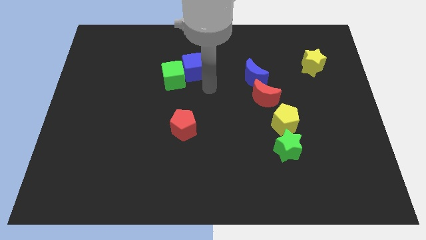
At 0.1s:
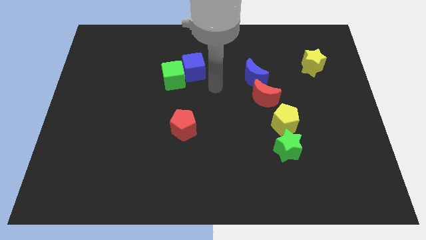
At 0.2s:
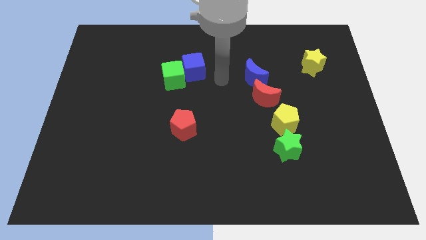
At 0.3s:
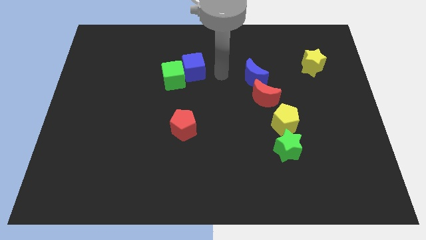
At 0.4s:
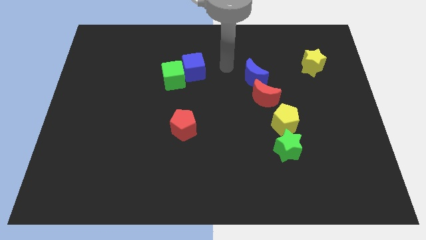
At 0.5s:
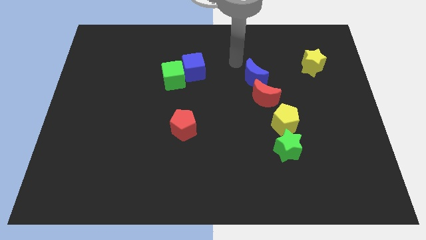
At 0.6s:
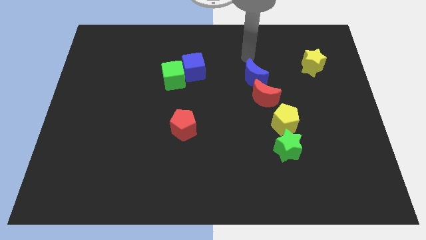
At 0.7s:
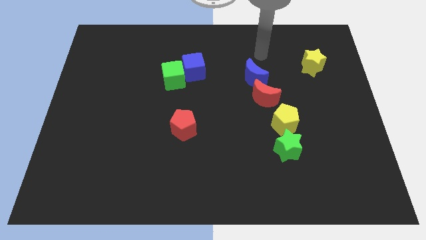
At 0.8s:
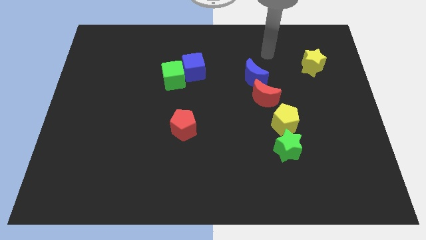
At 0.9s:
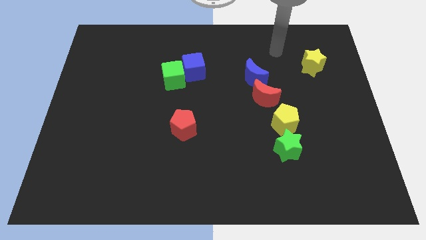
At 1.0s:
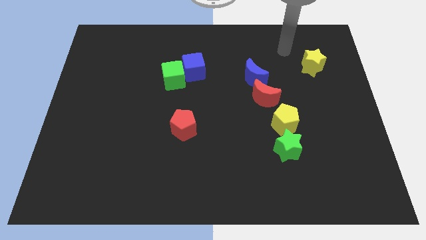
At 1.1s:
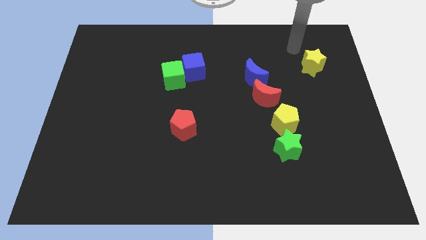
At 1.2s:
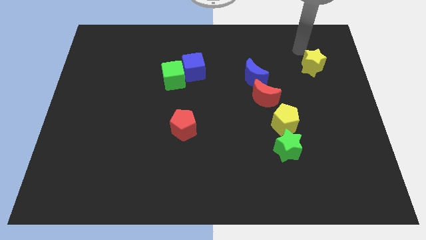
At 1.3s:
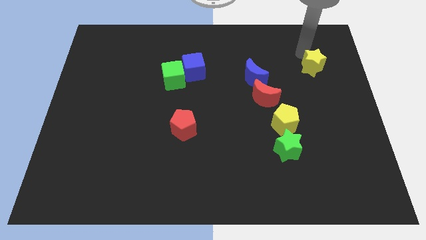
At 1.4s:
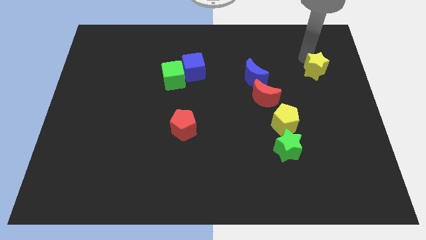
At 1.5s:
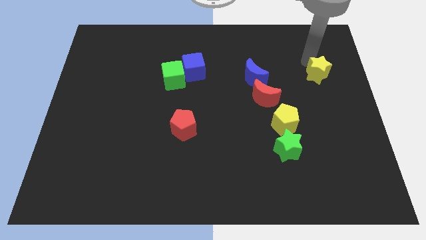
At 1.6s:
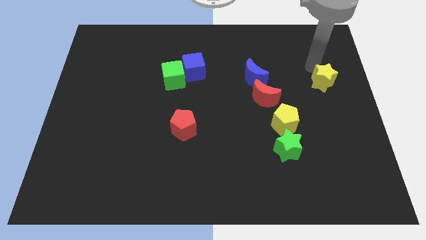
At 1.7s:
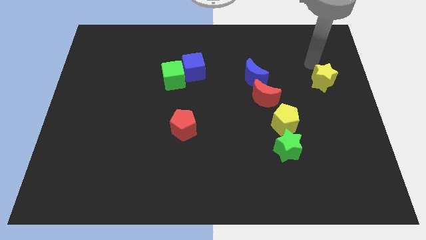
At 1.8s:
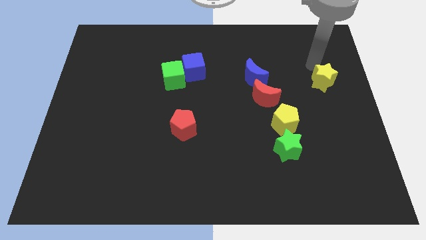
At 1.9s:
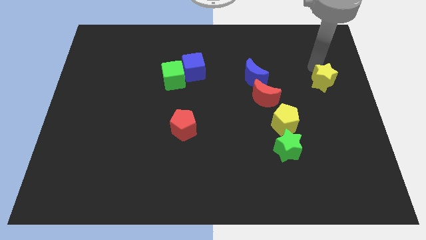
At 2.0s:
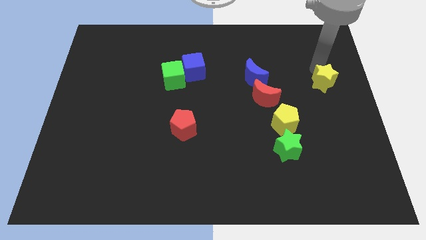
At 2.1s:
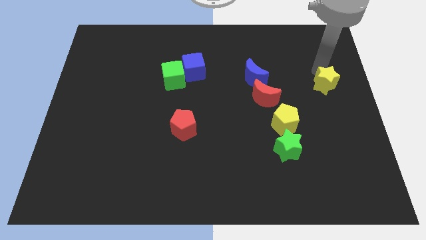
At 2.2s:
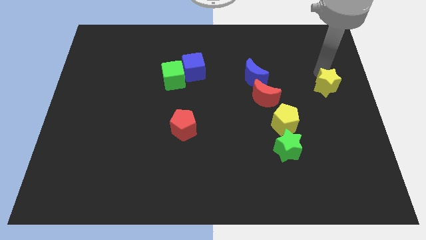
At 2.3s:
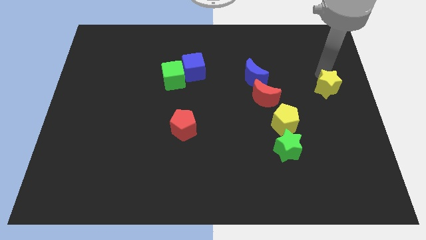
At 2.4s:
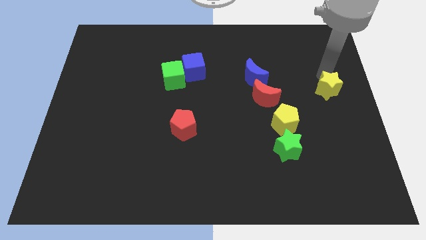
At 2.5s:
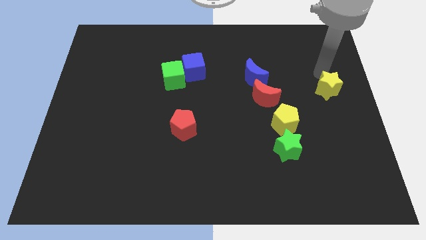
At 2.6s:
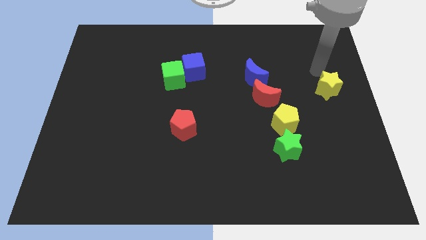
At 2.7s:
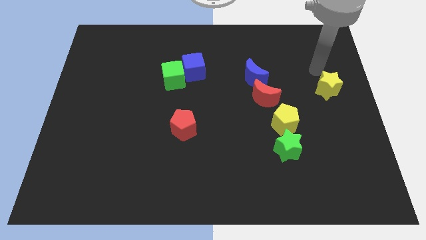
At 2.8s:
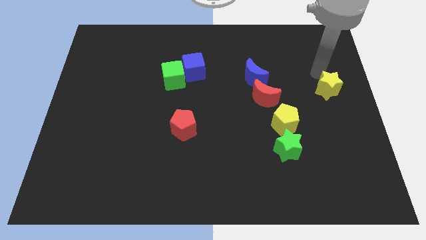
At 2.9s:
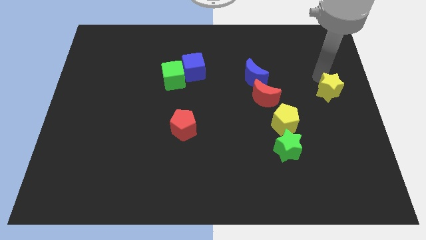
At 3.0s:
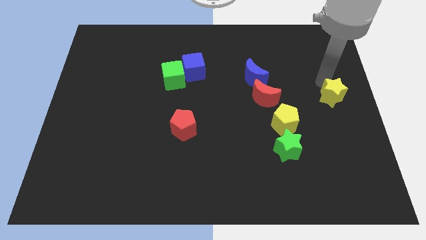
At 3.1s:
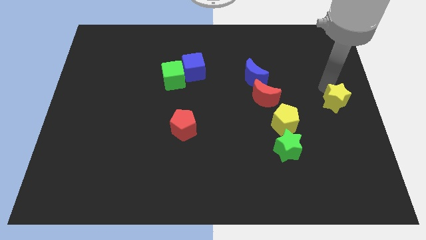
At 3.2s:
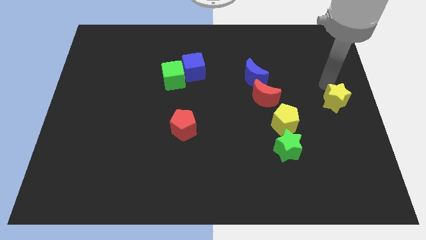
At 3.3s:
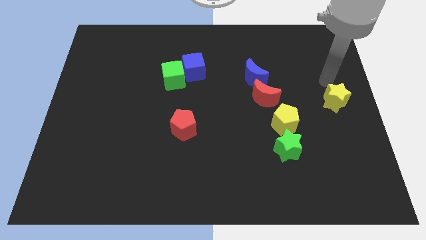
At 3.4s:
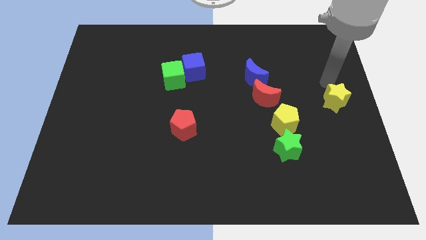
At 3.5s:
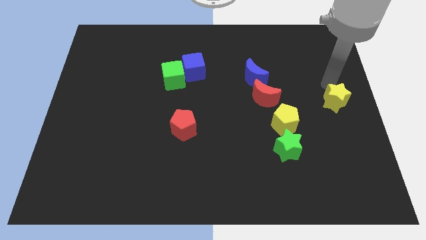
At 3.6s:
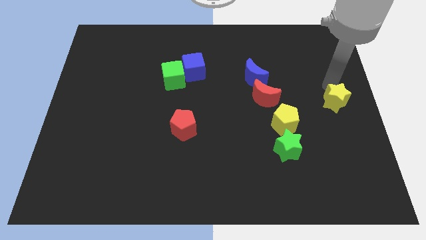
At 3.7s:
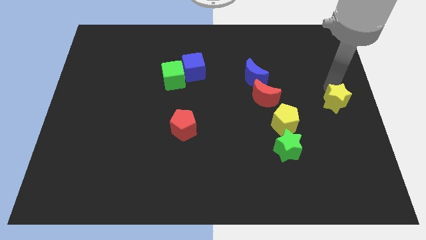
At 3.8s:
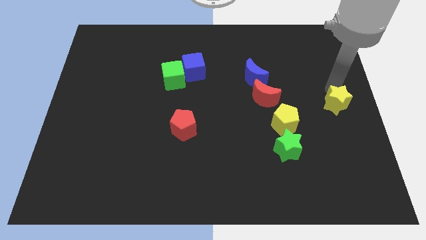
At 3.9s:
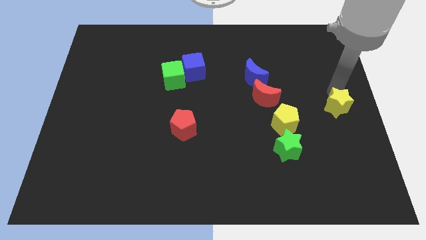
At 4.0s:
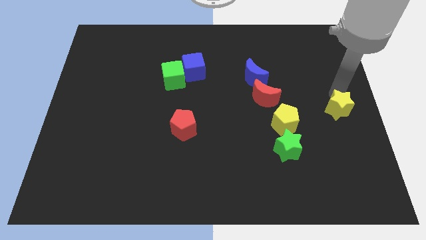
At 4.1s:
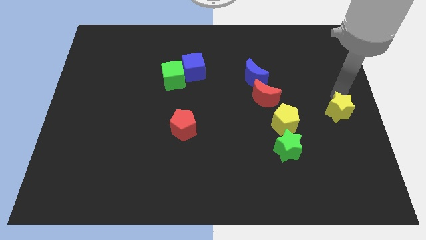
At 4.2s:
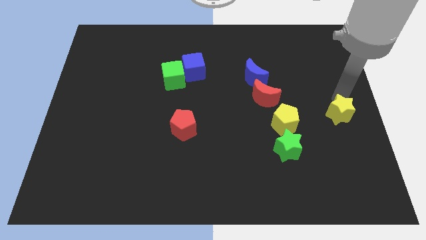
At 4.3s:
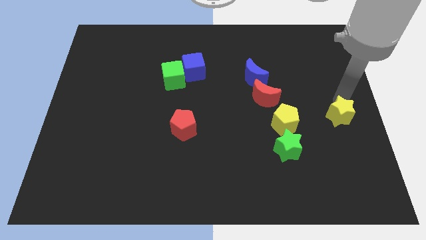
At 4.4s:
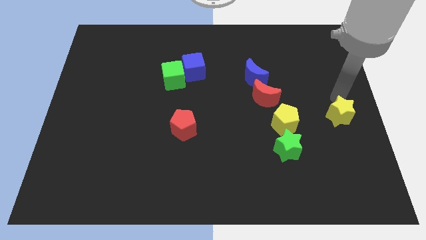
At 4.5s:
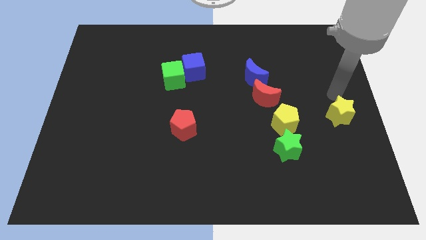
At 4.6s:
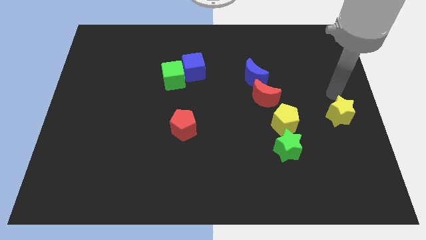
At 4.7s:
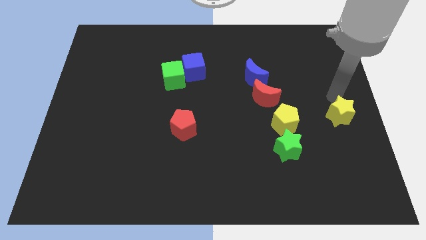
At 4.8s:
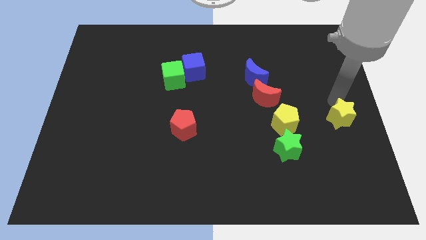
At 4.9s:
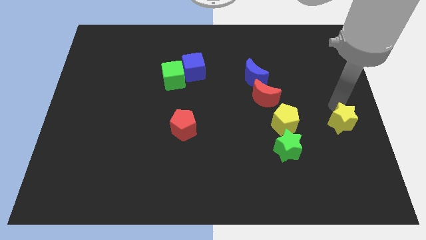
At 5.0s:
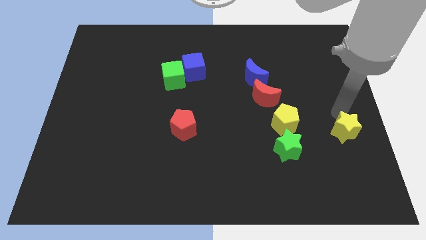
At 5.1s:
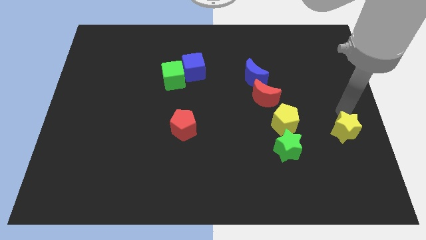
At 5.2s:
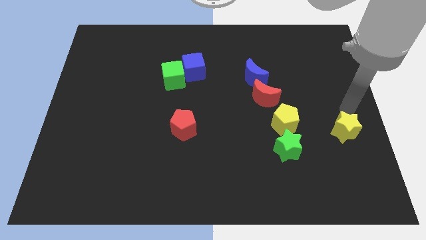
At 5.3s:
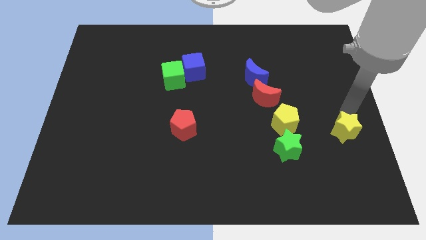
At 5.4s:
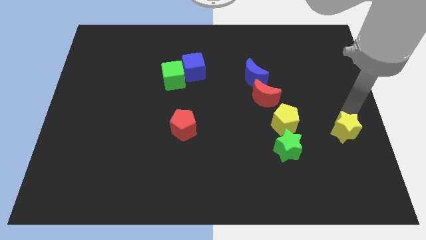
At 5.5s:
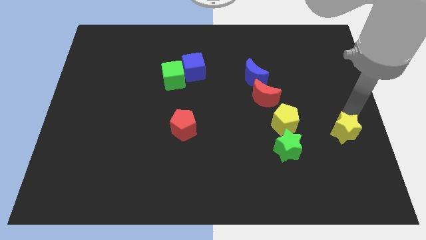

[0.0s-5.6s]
move the yellow star downwards

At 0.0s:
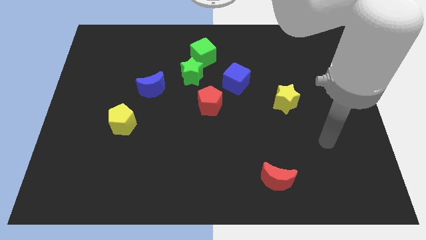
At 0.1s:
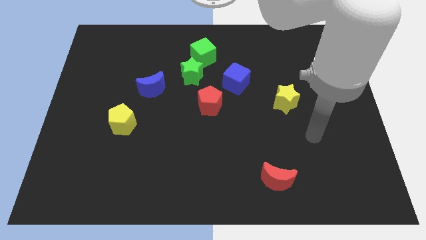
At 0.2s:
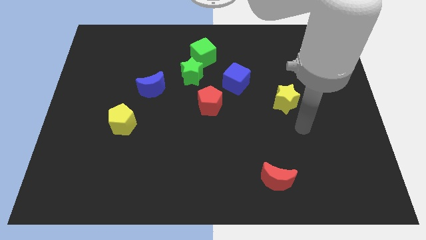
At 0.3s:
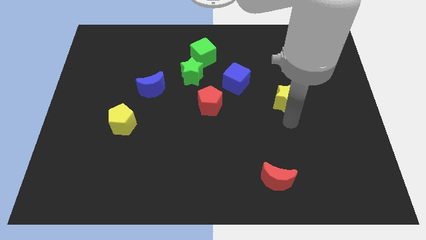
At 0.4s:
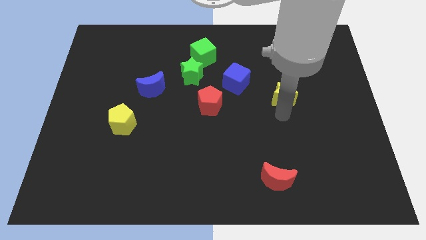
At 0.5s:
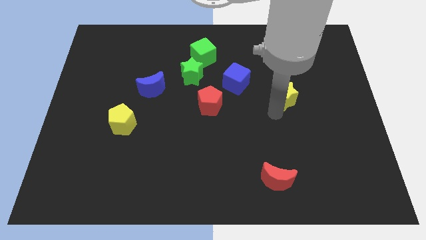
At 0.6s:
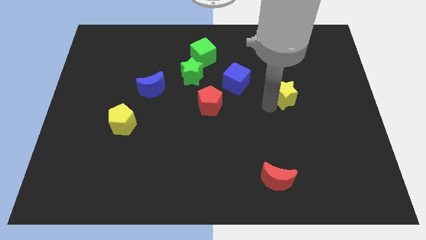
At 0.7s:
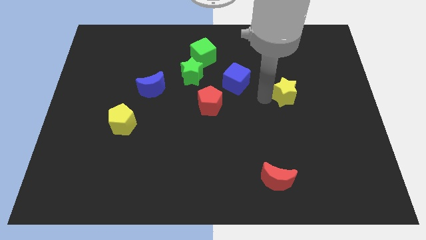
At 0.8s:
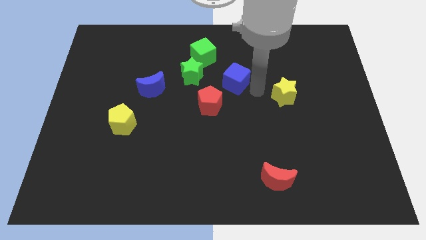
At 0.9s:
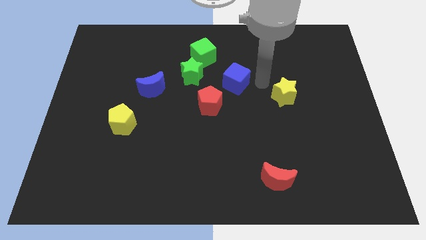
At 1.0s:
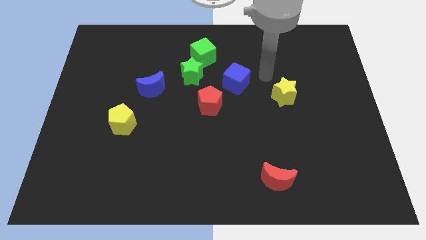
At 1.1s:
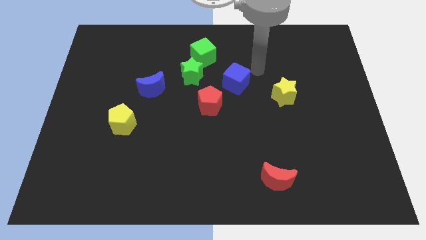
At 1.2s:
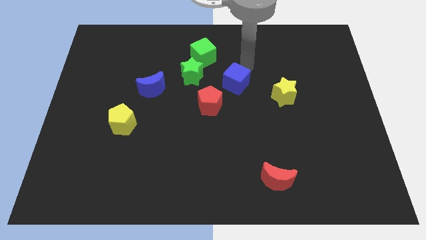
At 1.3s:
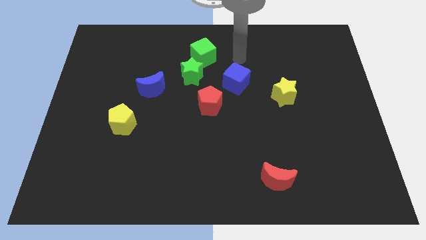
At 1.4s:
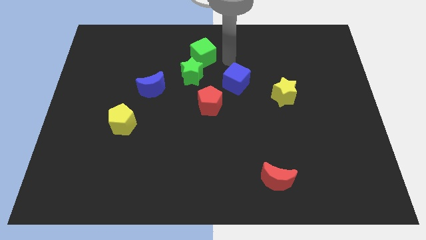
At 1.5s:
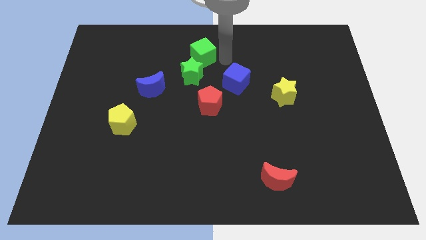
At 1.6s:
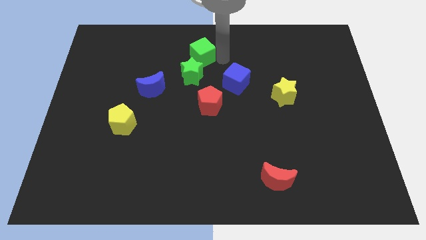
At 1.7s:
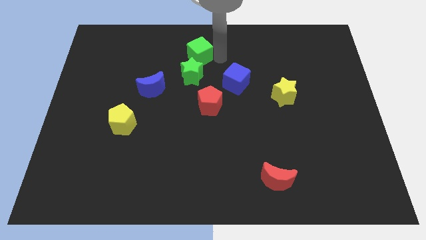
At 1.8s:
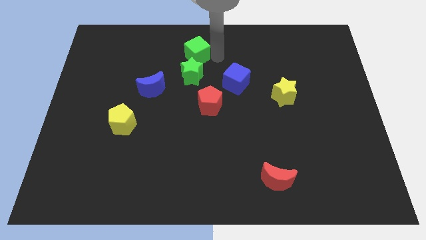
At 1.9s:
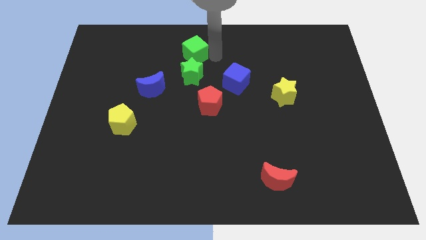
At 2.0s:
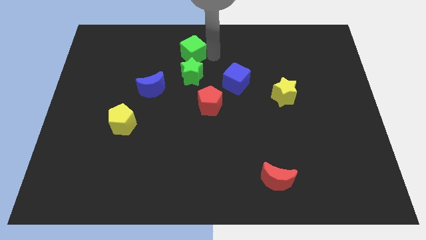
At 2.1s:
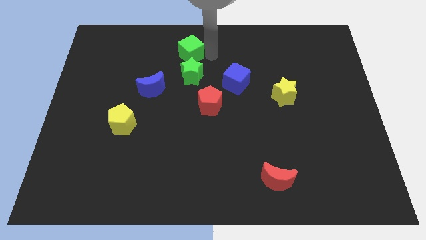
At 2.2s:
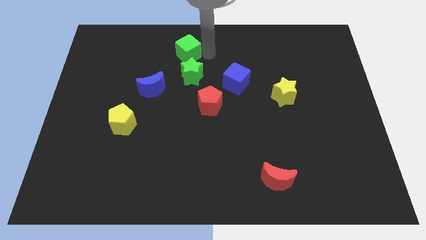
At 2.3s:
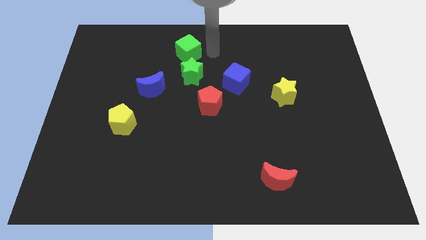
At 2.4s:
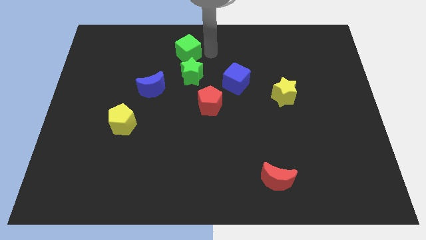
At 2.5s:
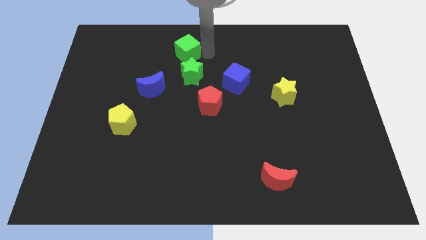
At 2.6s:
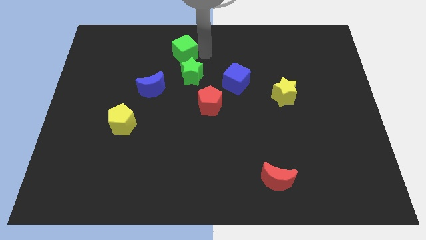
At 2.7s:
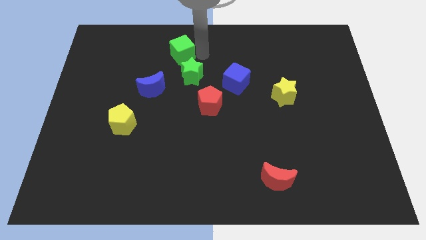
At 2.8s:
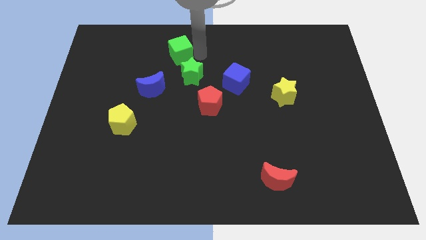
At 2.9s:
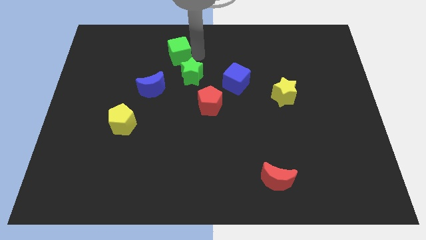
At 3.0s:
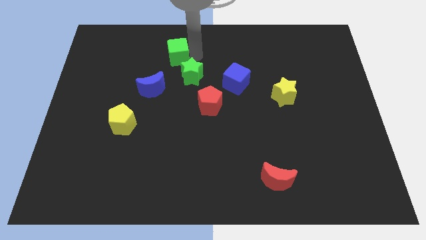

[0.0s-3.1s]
slightly slide the green cube left
